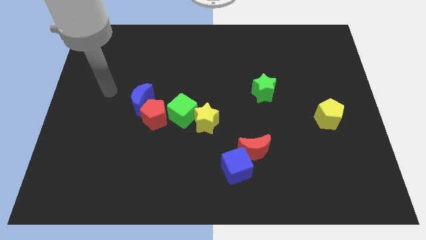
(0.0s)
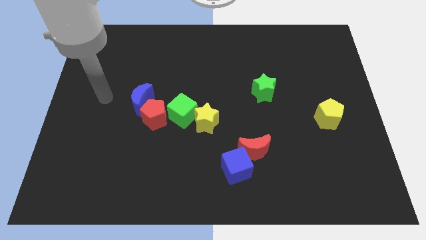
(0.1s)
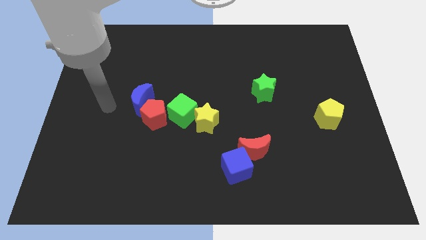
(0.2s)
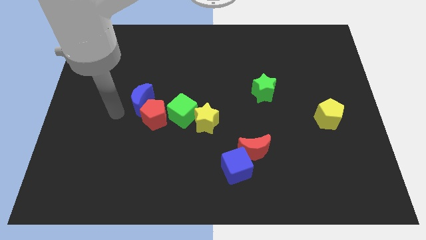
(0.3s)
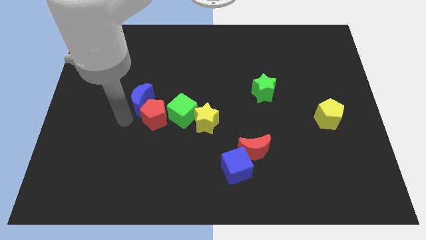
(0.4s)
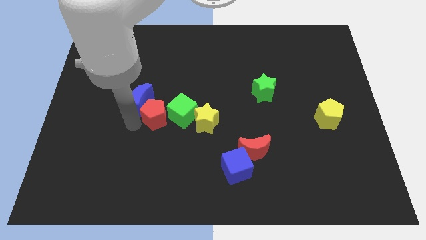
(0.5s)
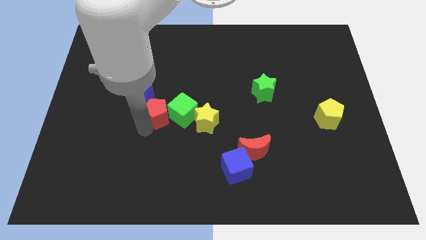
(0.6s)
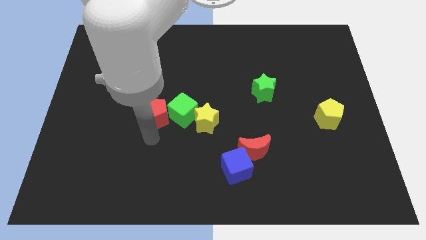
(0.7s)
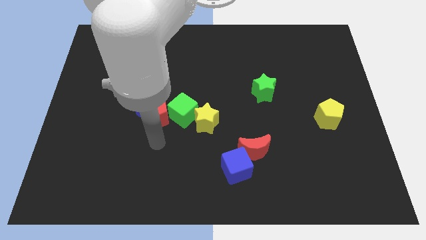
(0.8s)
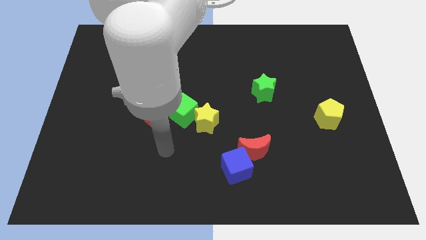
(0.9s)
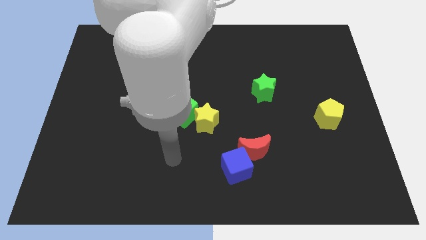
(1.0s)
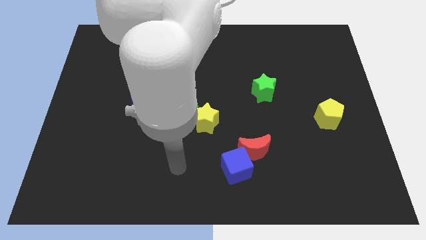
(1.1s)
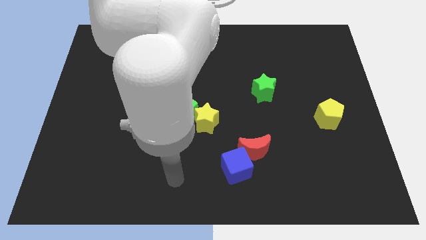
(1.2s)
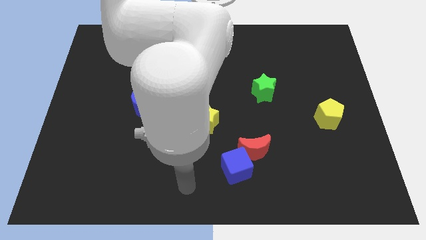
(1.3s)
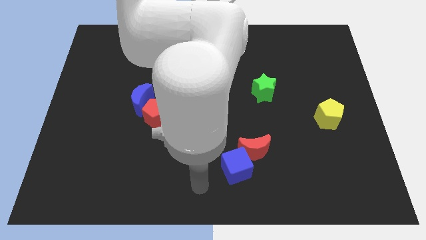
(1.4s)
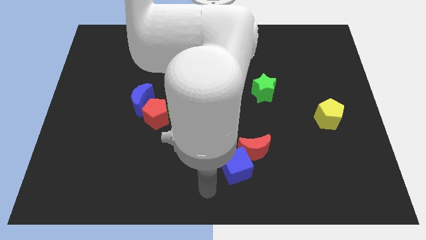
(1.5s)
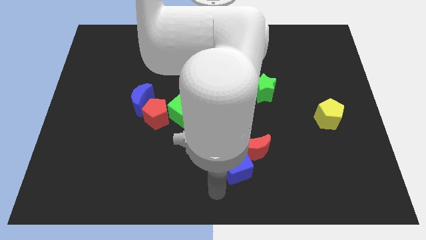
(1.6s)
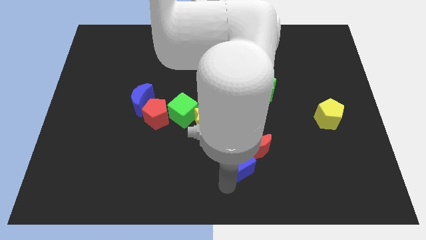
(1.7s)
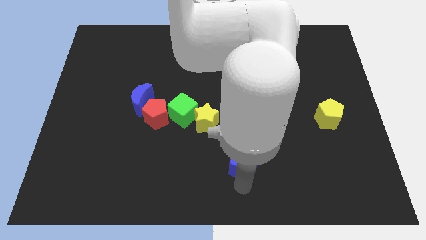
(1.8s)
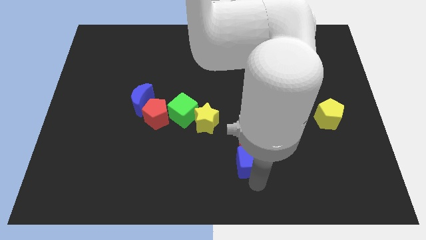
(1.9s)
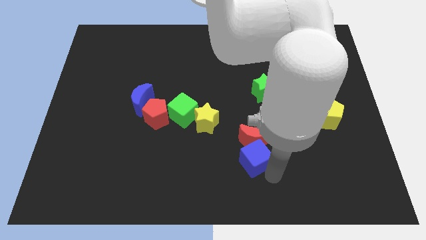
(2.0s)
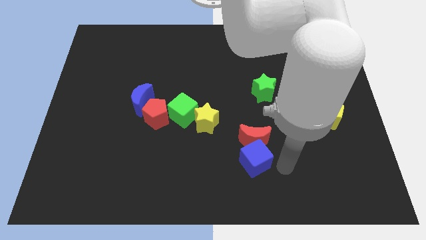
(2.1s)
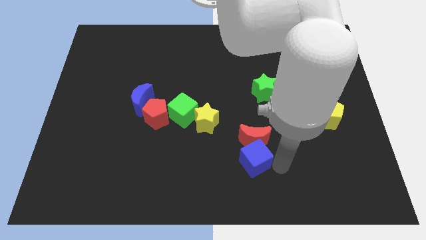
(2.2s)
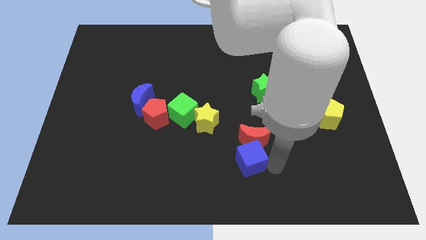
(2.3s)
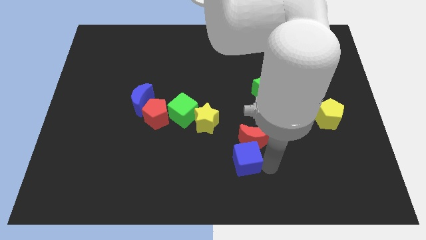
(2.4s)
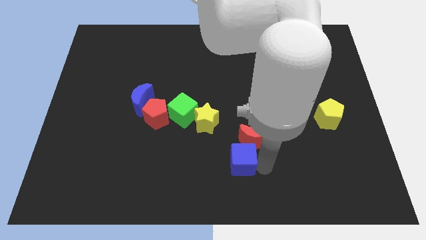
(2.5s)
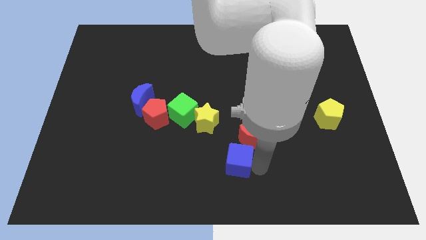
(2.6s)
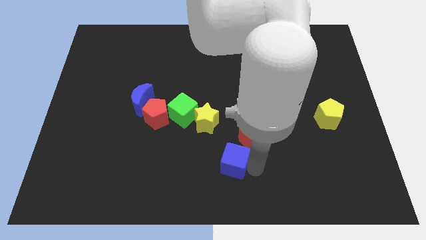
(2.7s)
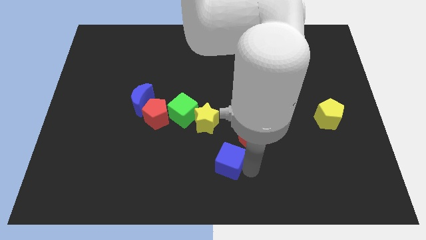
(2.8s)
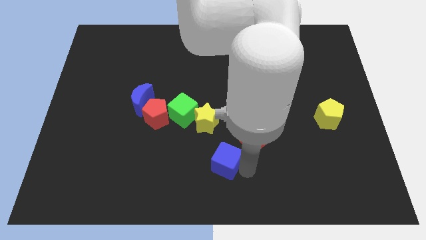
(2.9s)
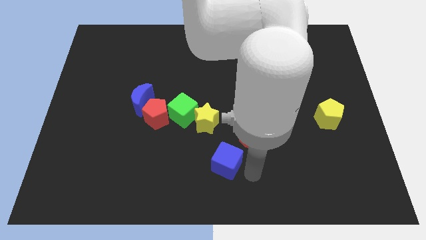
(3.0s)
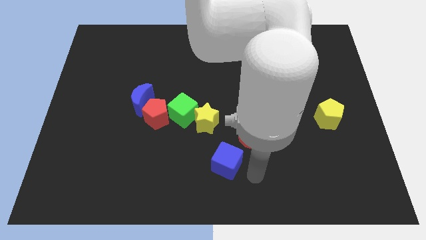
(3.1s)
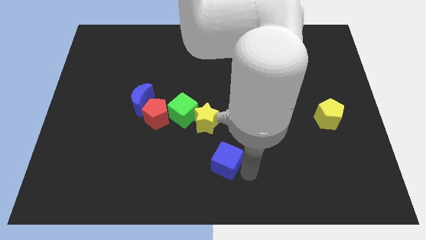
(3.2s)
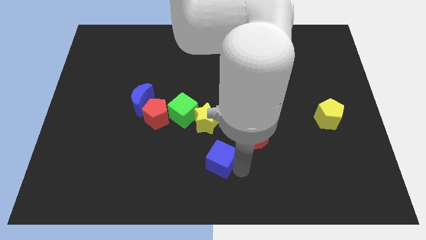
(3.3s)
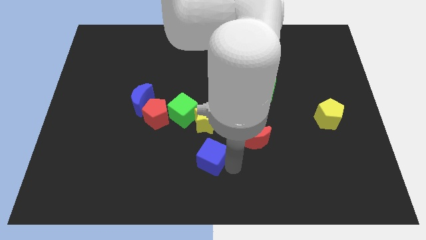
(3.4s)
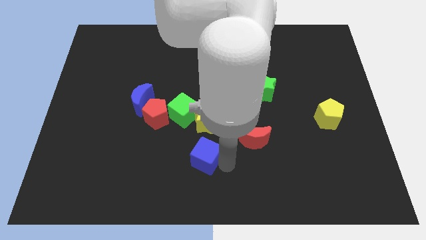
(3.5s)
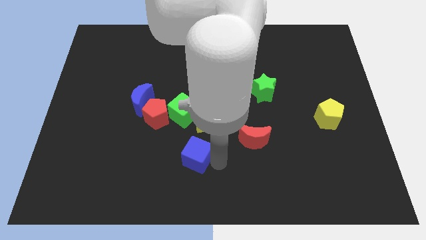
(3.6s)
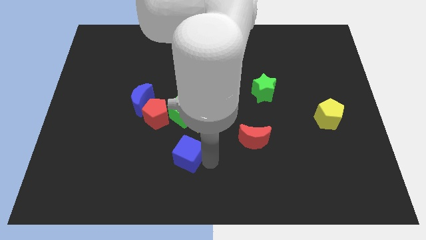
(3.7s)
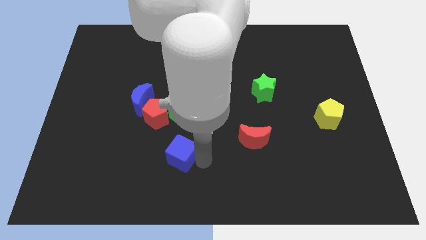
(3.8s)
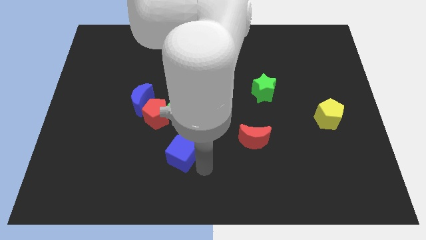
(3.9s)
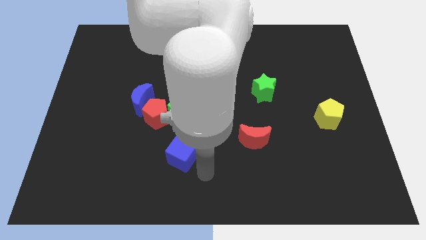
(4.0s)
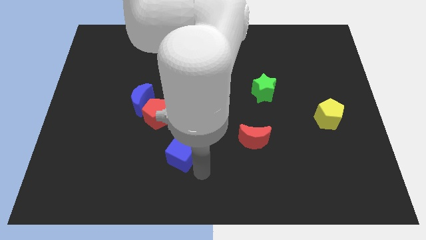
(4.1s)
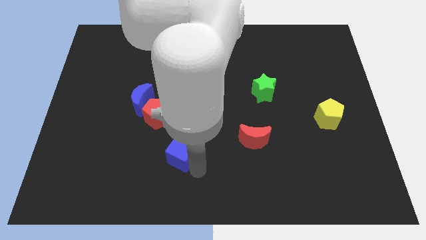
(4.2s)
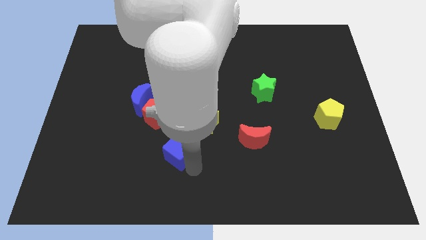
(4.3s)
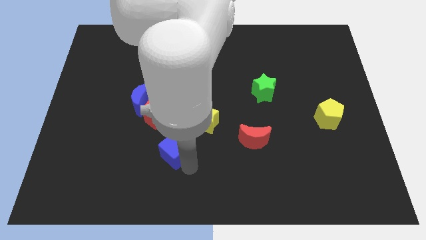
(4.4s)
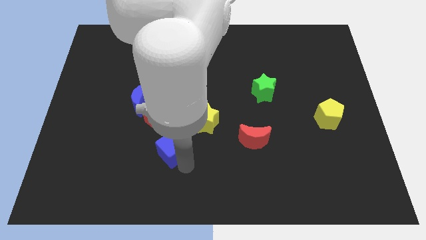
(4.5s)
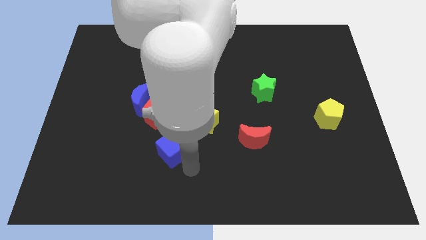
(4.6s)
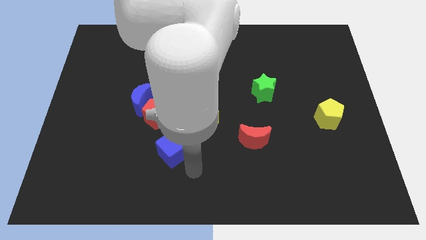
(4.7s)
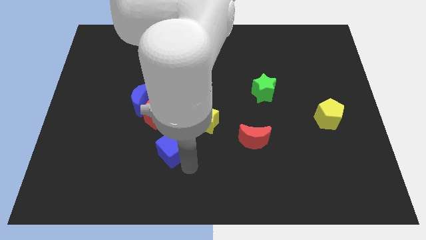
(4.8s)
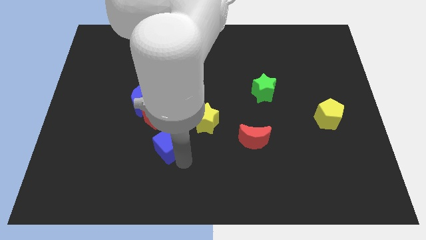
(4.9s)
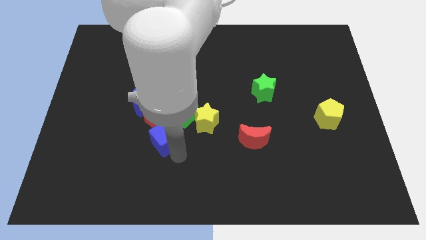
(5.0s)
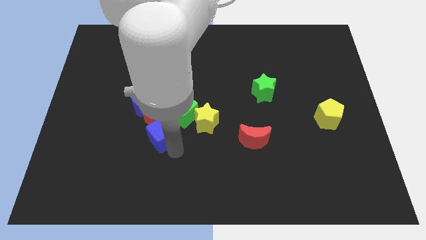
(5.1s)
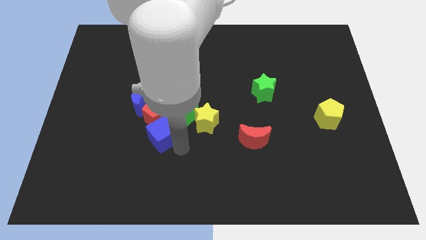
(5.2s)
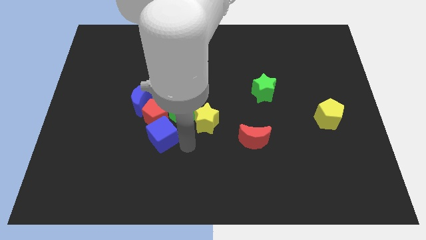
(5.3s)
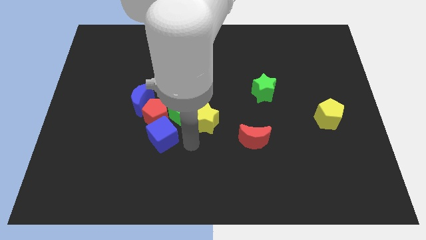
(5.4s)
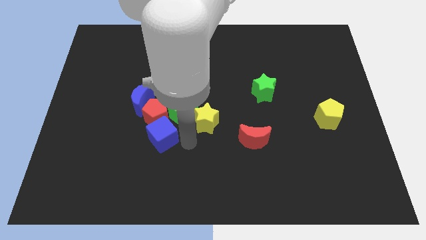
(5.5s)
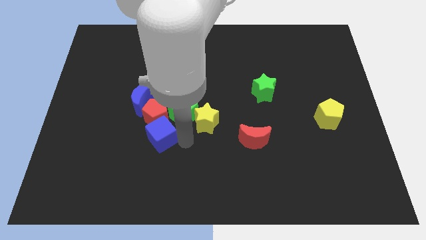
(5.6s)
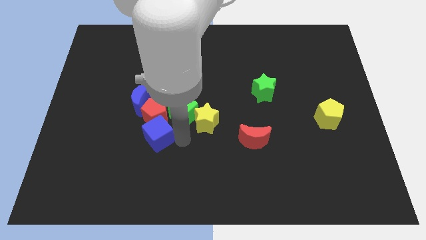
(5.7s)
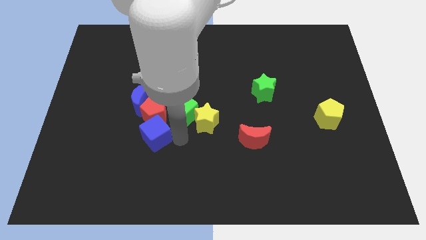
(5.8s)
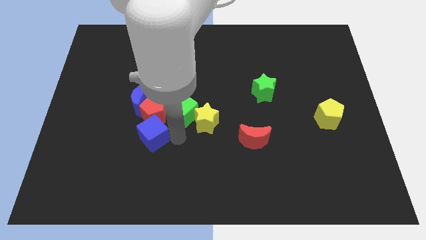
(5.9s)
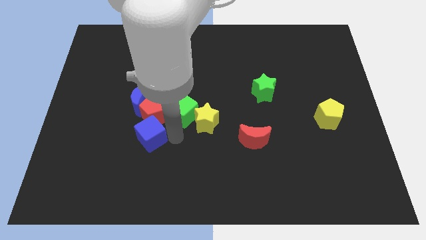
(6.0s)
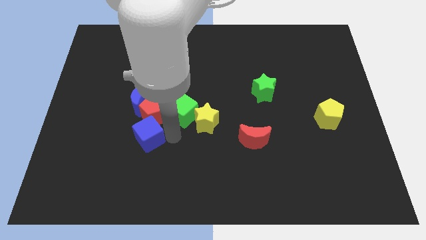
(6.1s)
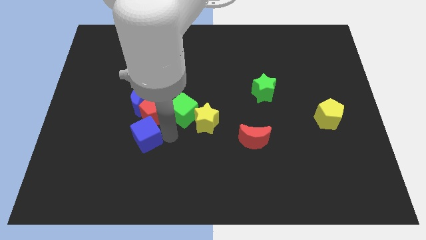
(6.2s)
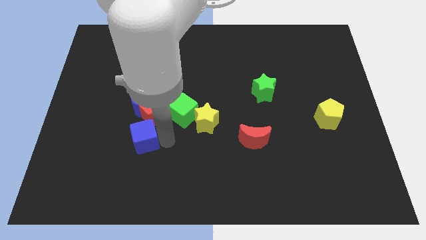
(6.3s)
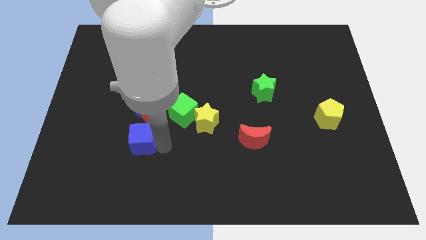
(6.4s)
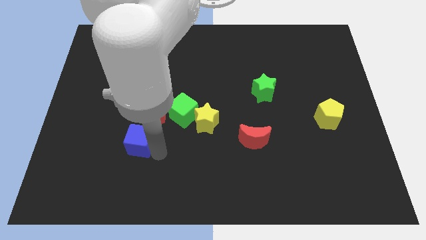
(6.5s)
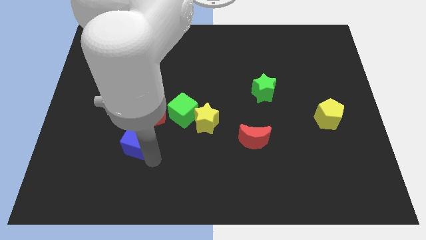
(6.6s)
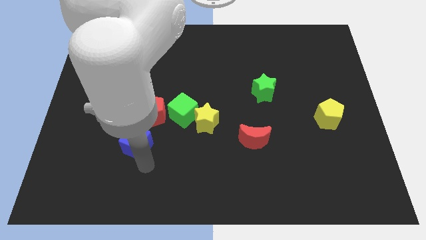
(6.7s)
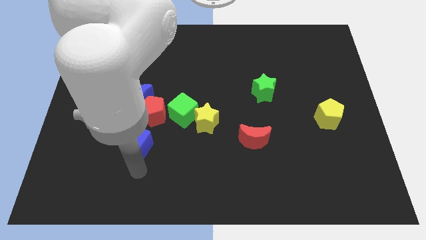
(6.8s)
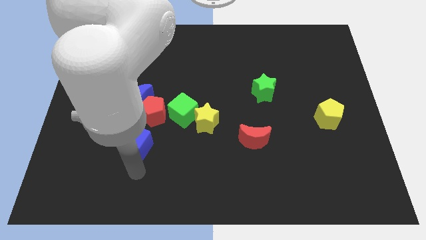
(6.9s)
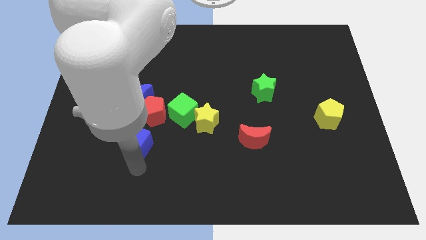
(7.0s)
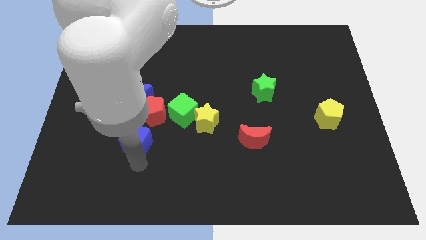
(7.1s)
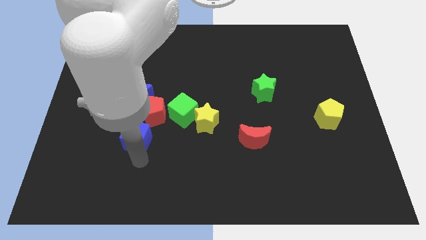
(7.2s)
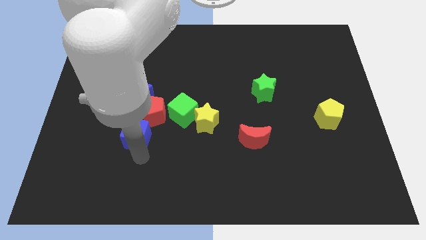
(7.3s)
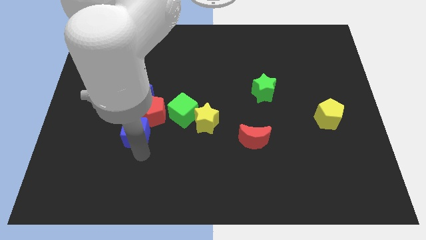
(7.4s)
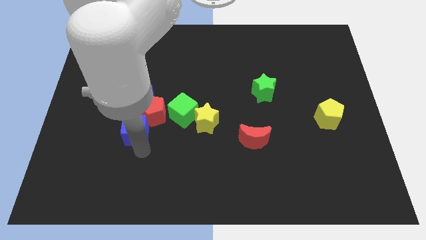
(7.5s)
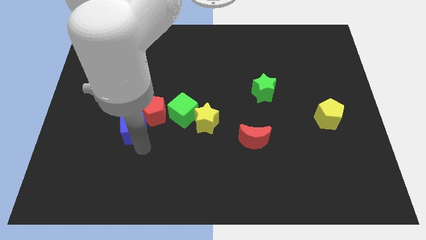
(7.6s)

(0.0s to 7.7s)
move the blue cube left of the green cube

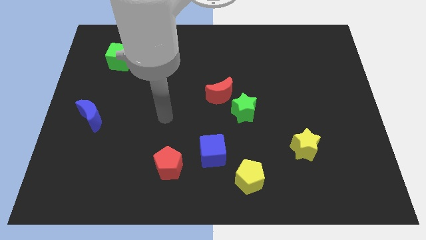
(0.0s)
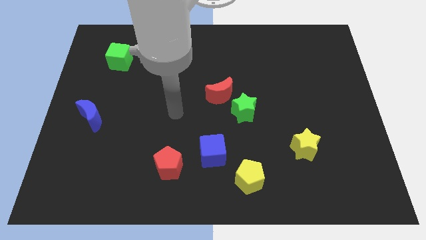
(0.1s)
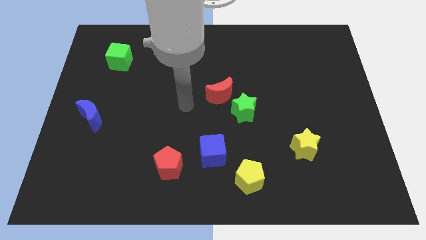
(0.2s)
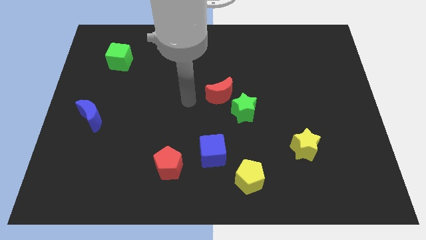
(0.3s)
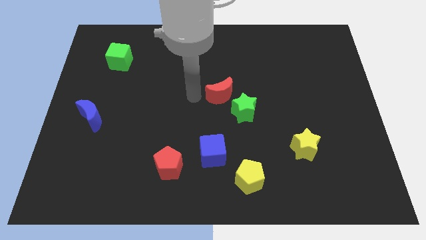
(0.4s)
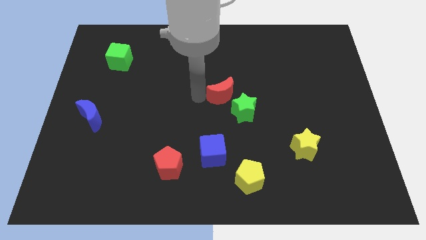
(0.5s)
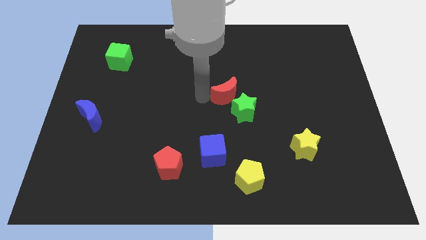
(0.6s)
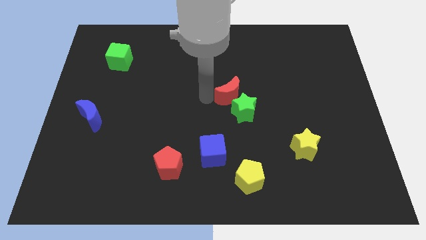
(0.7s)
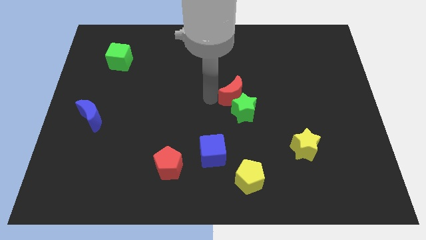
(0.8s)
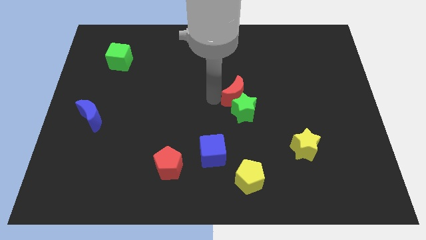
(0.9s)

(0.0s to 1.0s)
push the red moon diagonally up and to the right of the green star
